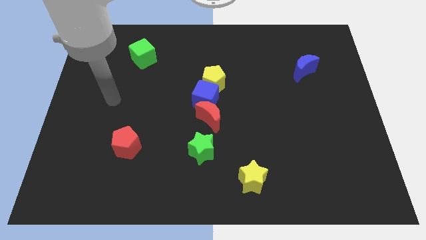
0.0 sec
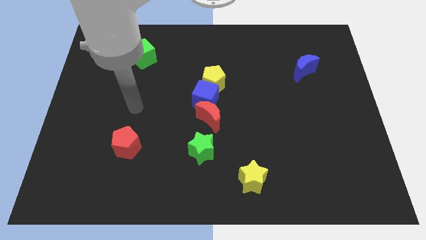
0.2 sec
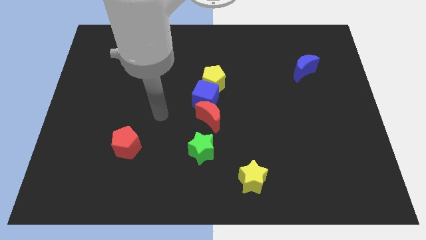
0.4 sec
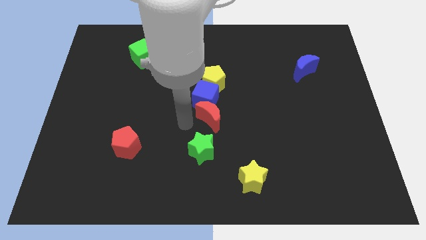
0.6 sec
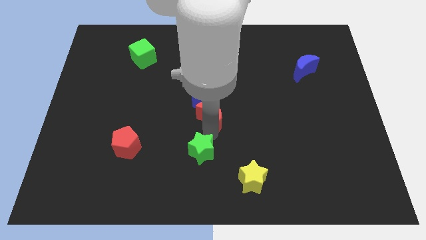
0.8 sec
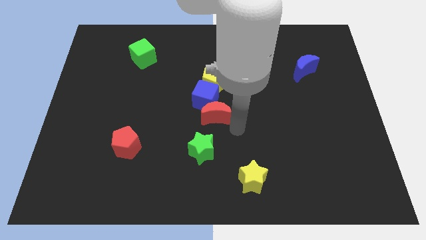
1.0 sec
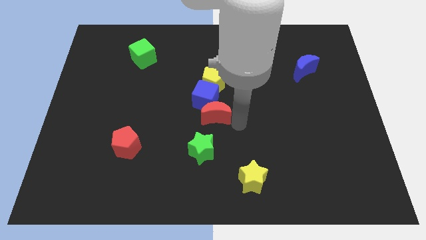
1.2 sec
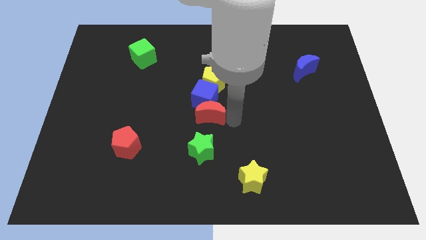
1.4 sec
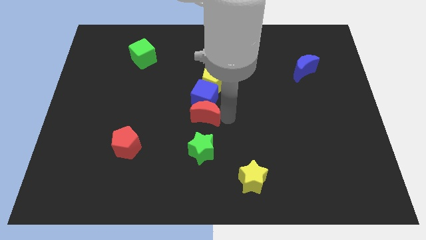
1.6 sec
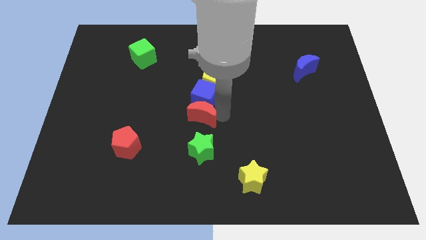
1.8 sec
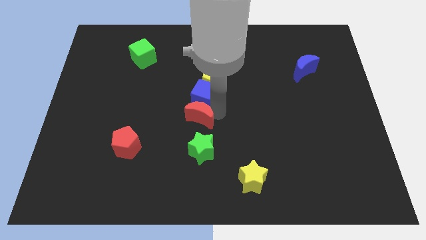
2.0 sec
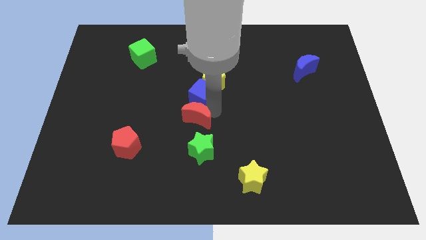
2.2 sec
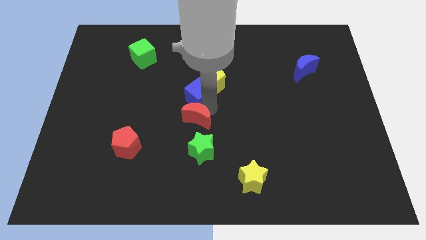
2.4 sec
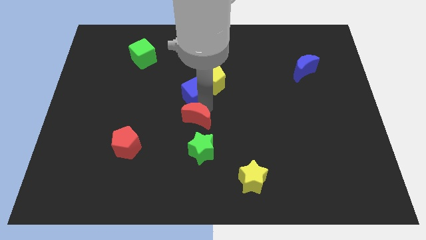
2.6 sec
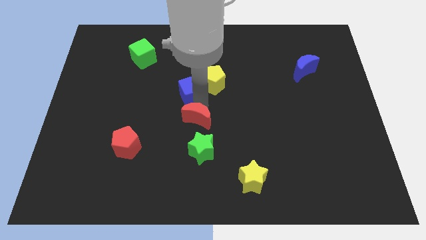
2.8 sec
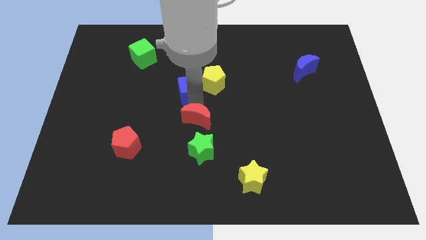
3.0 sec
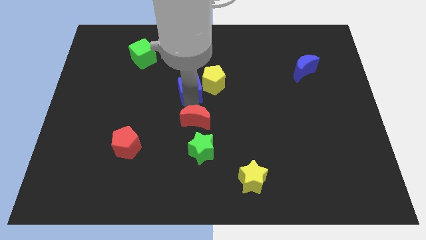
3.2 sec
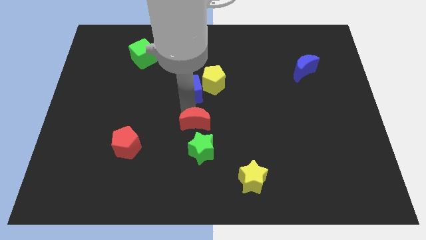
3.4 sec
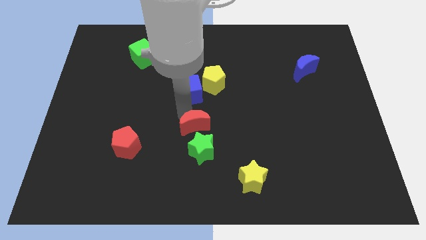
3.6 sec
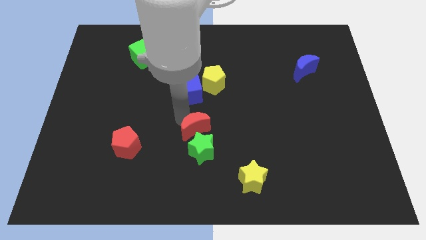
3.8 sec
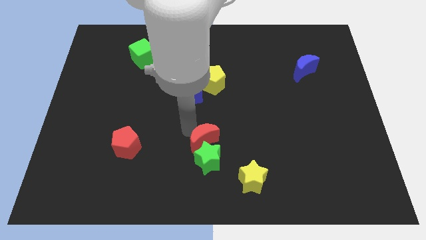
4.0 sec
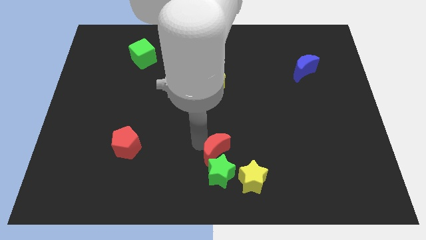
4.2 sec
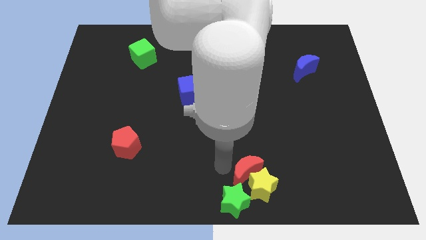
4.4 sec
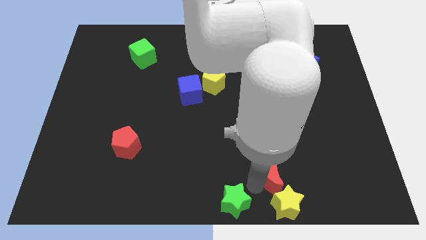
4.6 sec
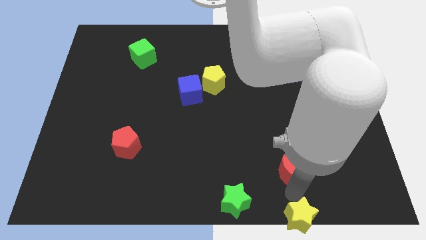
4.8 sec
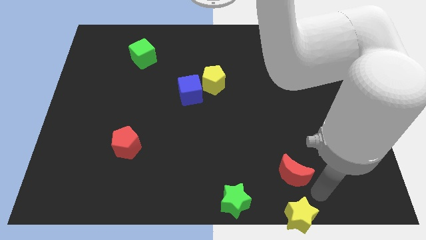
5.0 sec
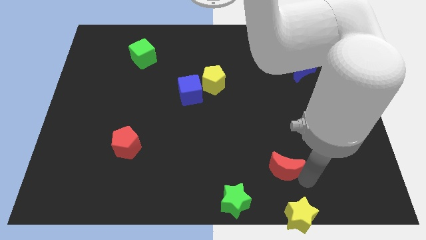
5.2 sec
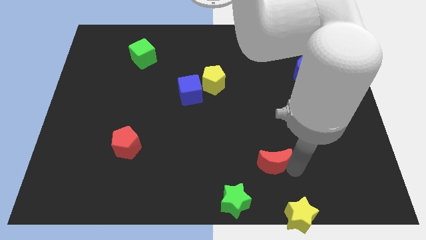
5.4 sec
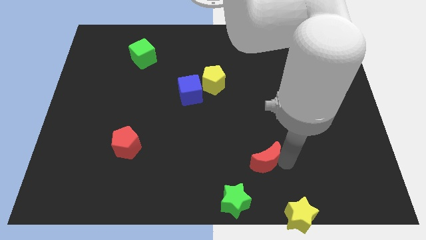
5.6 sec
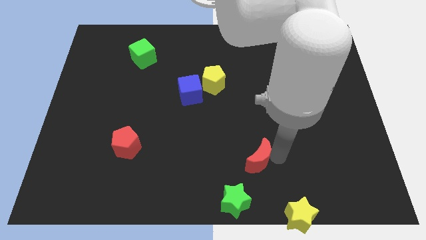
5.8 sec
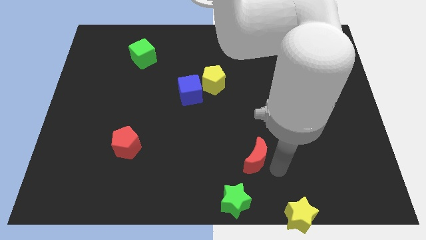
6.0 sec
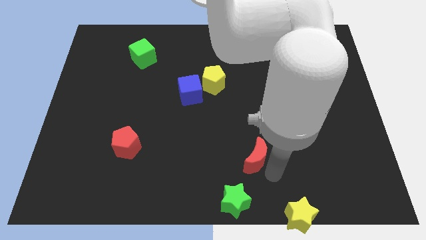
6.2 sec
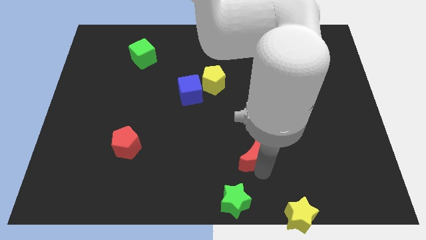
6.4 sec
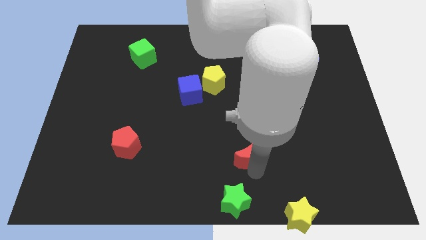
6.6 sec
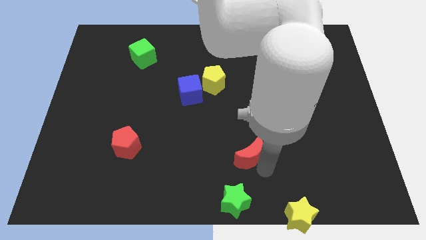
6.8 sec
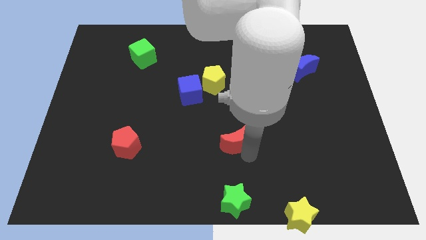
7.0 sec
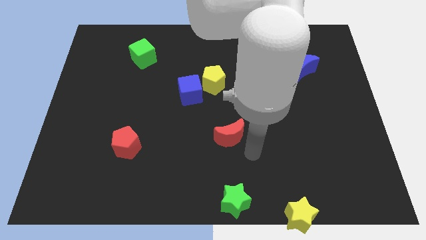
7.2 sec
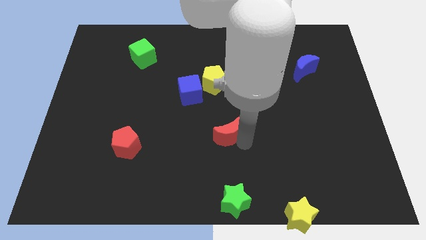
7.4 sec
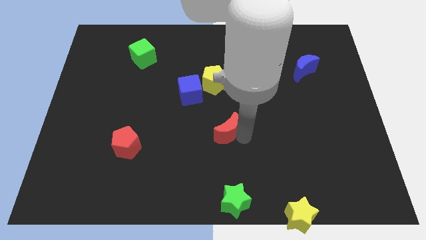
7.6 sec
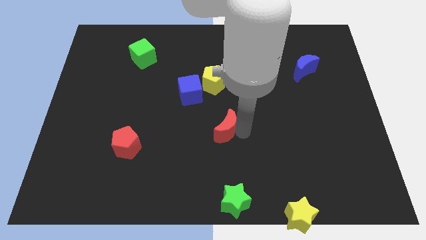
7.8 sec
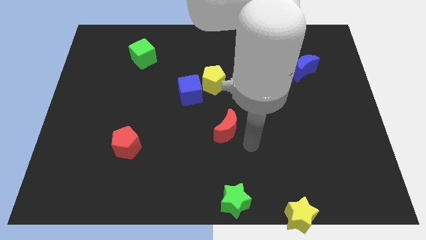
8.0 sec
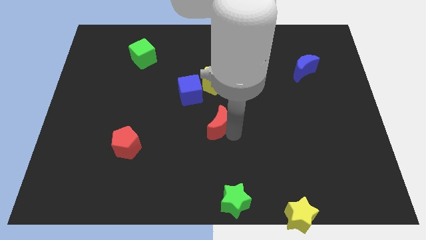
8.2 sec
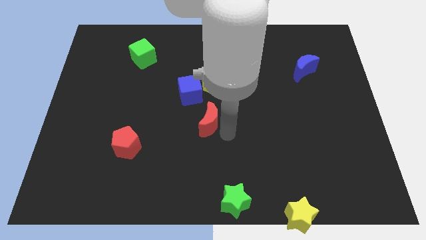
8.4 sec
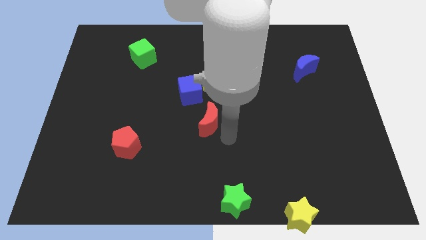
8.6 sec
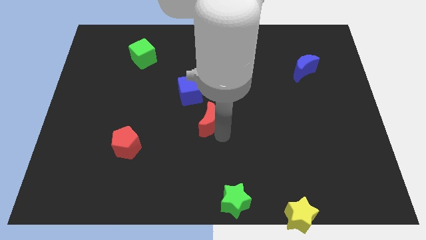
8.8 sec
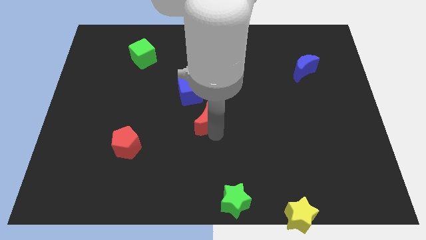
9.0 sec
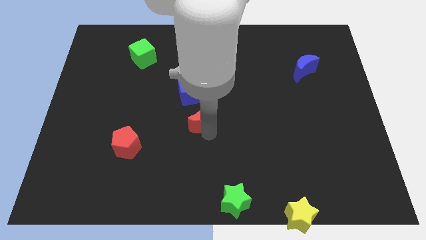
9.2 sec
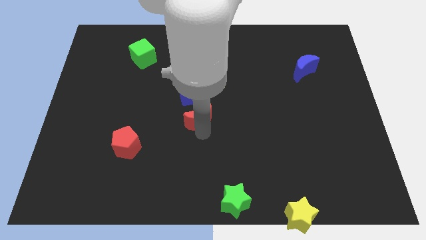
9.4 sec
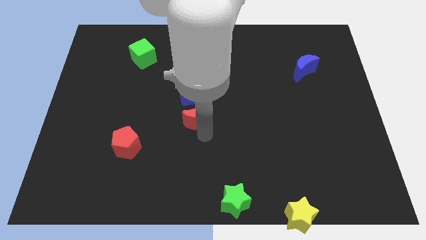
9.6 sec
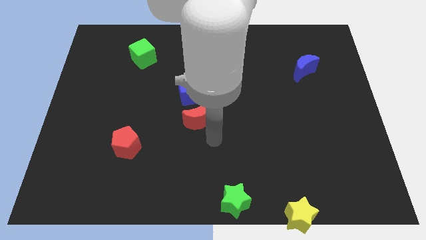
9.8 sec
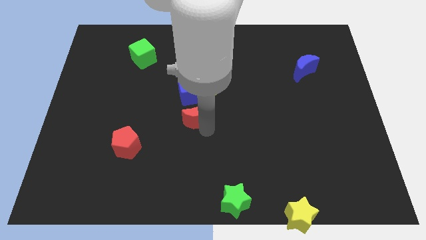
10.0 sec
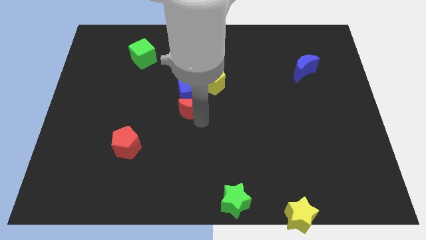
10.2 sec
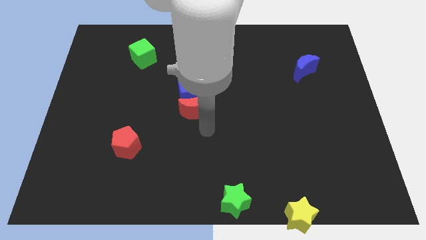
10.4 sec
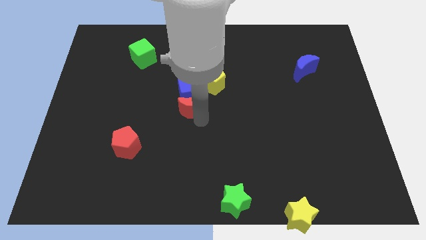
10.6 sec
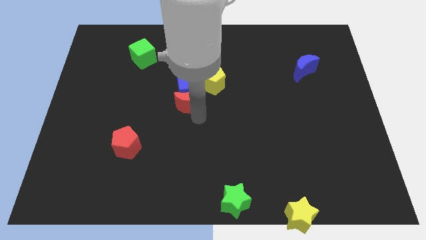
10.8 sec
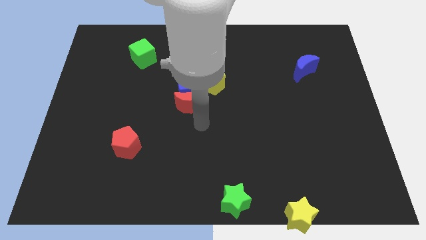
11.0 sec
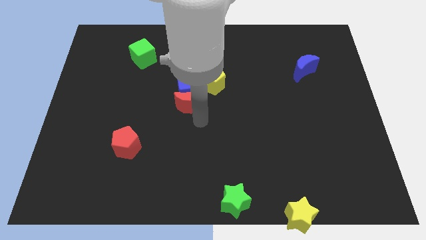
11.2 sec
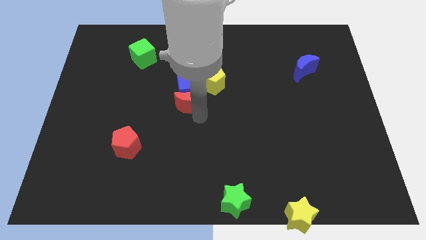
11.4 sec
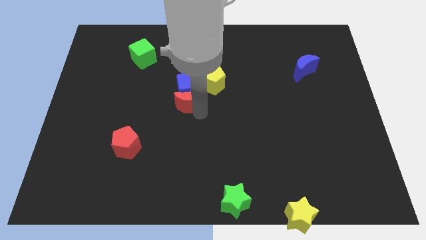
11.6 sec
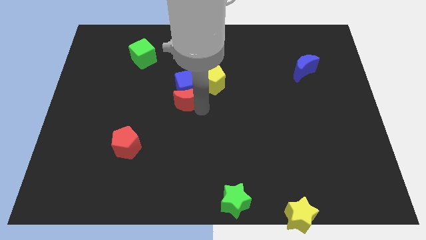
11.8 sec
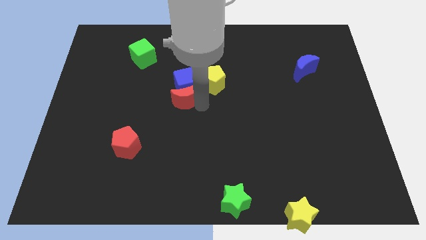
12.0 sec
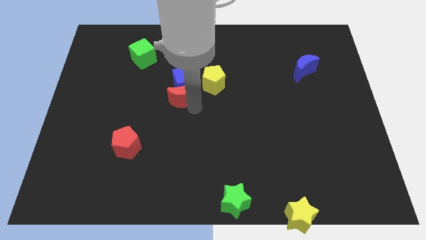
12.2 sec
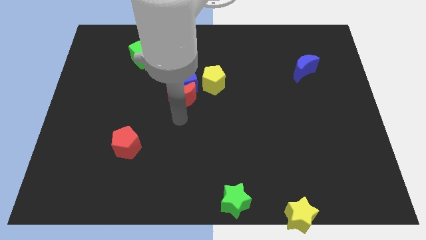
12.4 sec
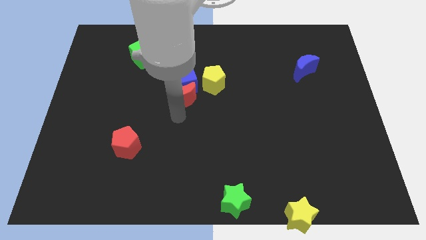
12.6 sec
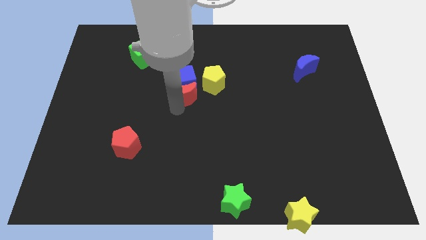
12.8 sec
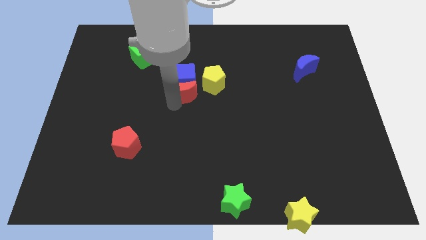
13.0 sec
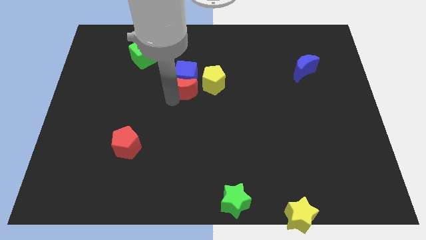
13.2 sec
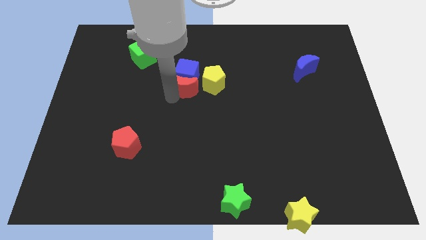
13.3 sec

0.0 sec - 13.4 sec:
slightly slide the red moon up

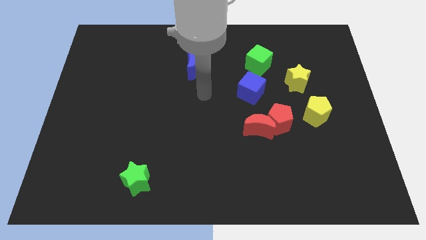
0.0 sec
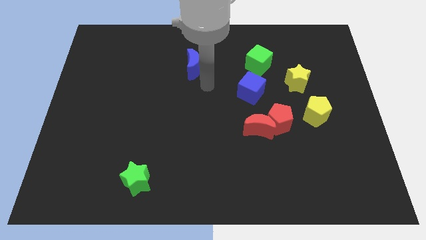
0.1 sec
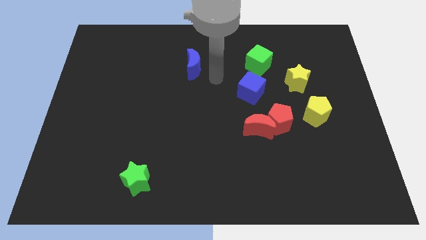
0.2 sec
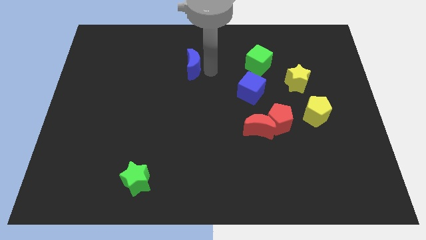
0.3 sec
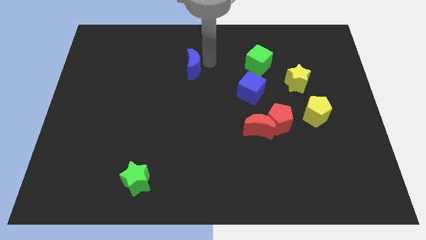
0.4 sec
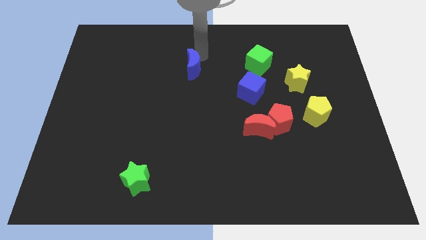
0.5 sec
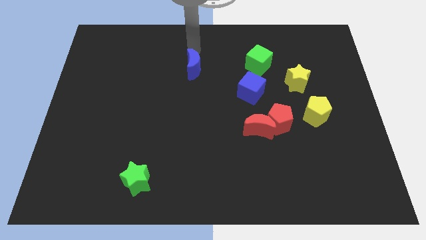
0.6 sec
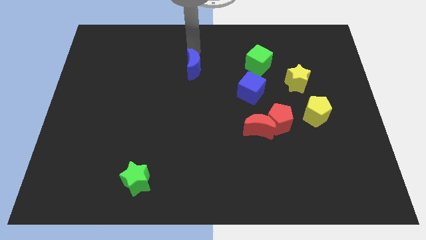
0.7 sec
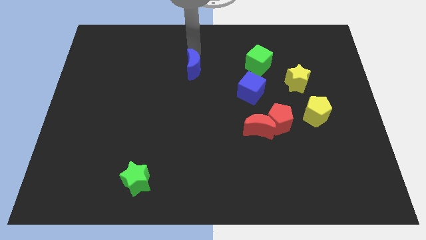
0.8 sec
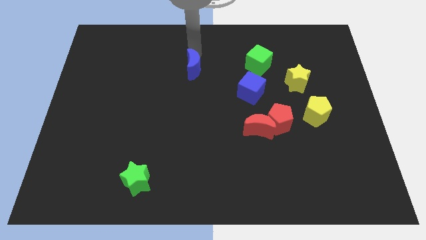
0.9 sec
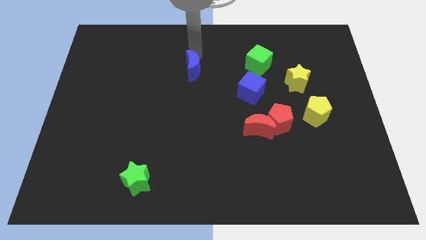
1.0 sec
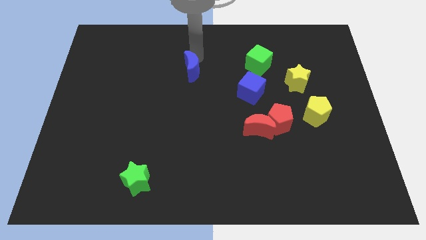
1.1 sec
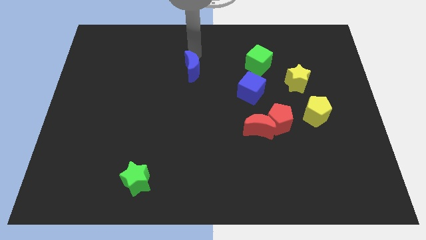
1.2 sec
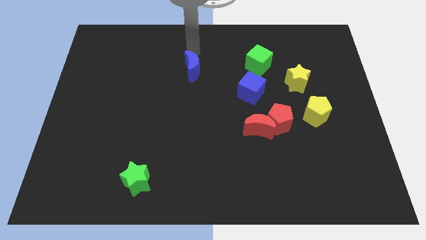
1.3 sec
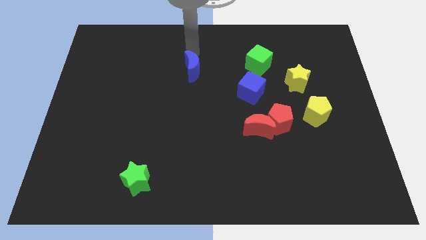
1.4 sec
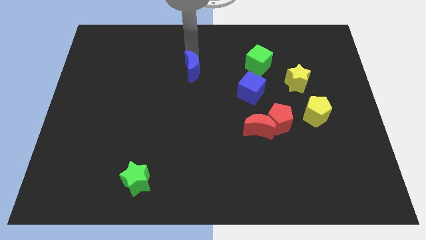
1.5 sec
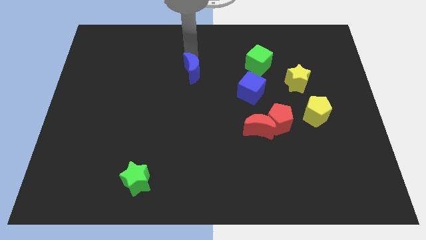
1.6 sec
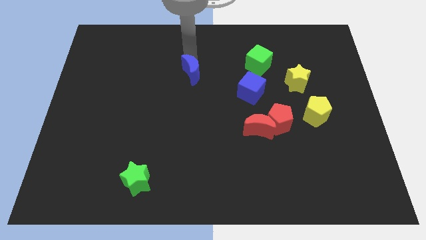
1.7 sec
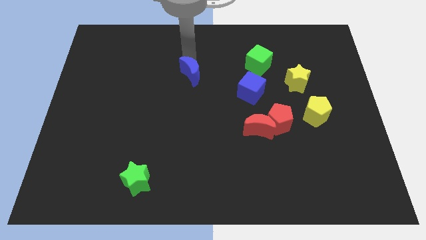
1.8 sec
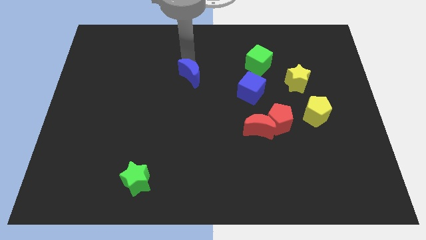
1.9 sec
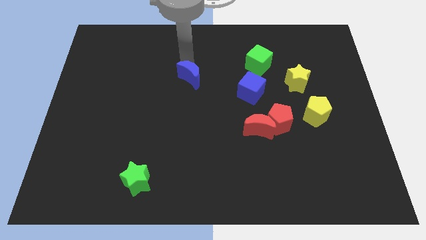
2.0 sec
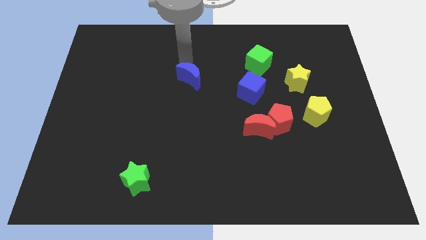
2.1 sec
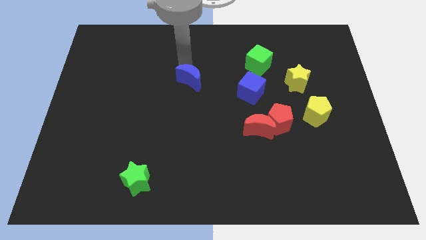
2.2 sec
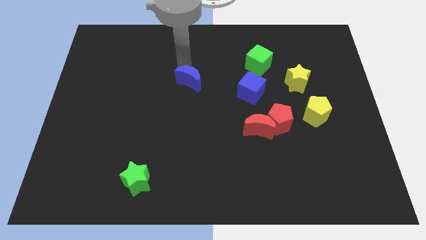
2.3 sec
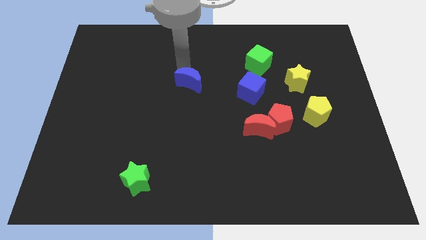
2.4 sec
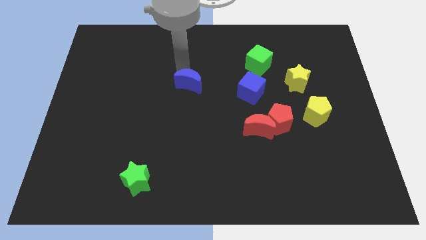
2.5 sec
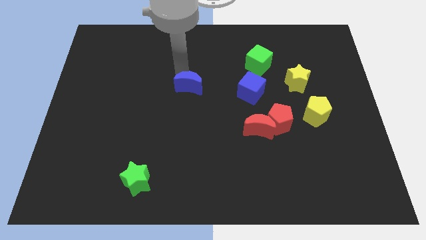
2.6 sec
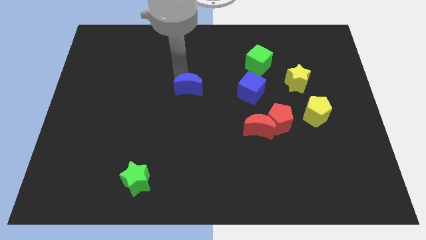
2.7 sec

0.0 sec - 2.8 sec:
move the blue moon slightly downwards
